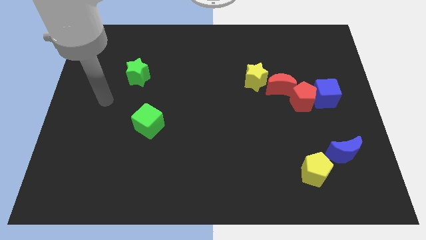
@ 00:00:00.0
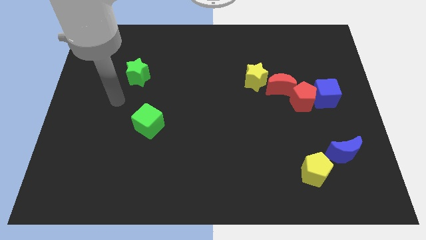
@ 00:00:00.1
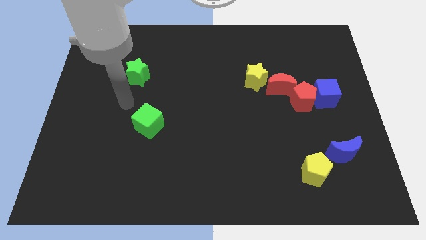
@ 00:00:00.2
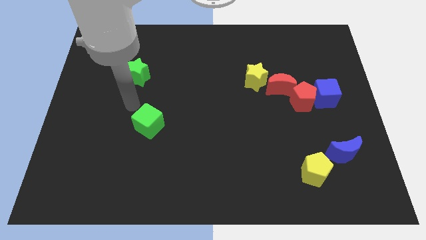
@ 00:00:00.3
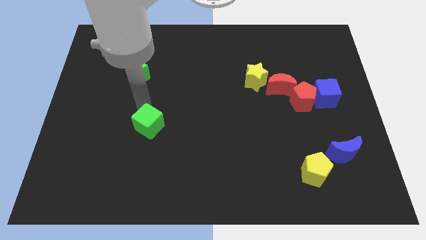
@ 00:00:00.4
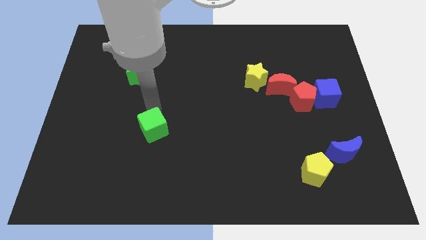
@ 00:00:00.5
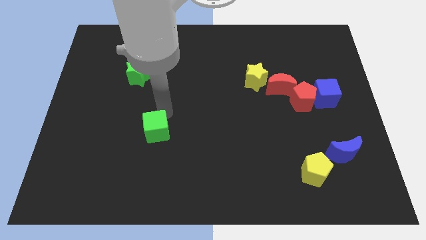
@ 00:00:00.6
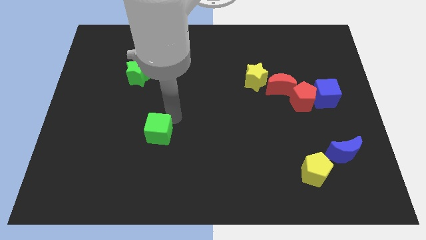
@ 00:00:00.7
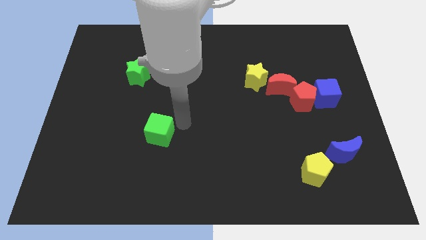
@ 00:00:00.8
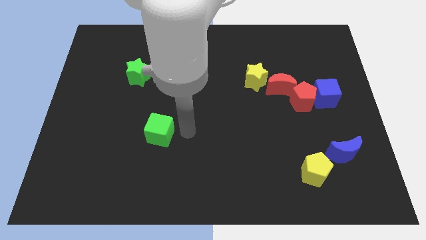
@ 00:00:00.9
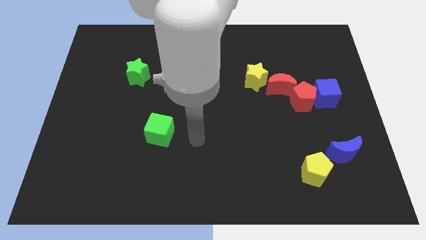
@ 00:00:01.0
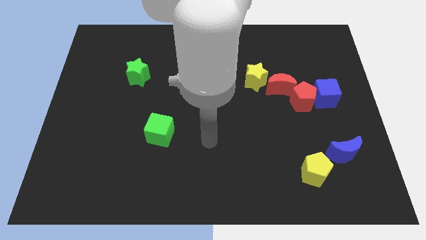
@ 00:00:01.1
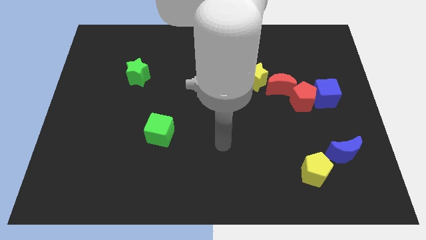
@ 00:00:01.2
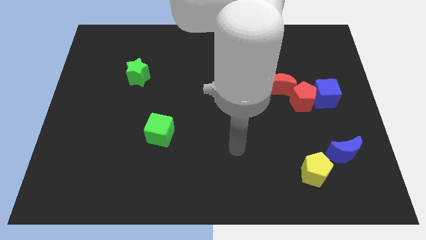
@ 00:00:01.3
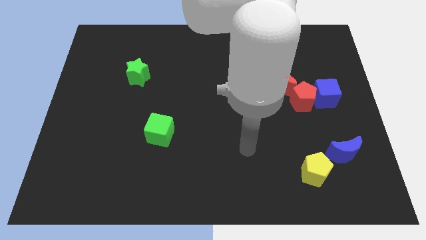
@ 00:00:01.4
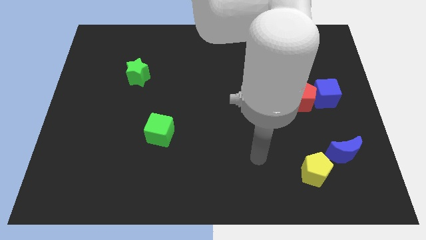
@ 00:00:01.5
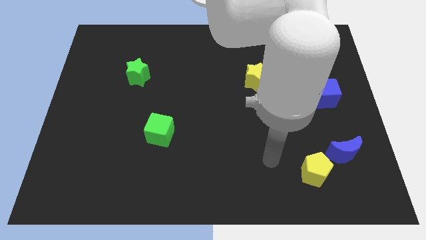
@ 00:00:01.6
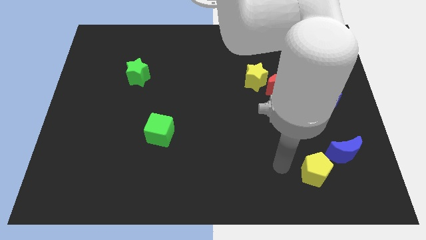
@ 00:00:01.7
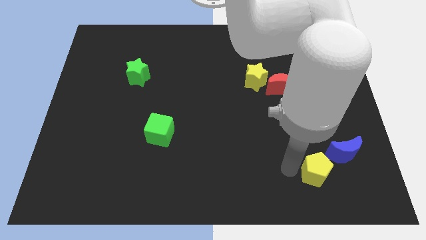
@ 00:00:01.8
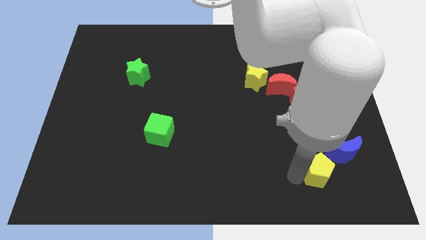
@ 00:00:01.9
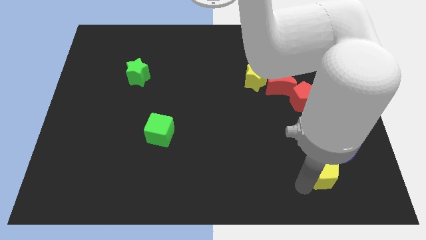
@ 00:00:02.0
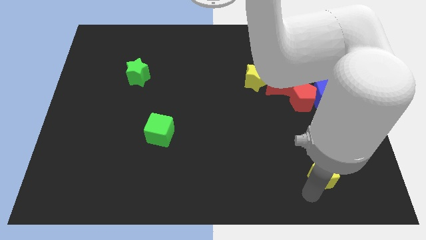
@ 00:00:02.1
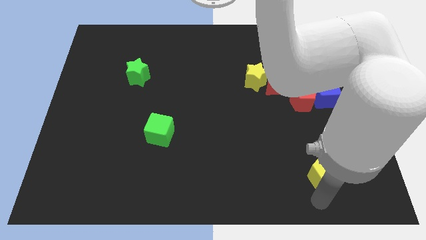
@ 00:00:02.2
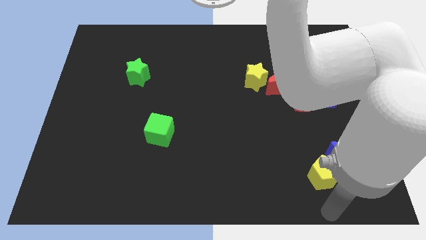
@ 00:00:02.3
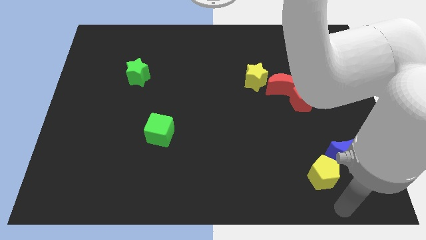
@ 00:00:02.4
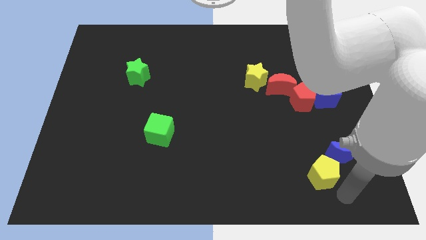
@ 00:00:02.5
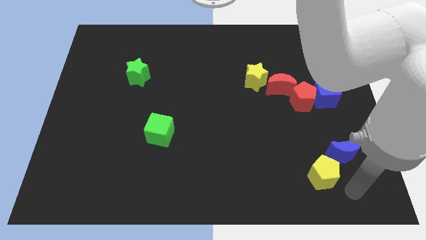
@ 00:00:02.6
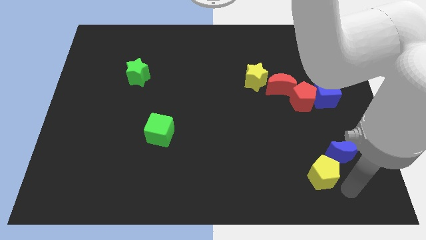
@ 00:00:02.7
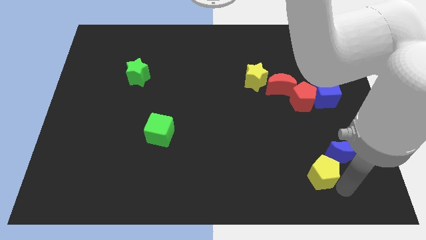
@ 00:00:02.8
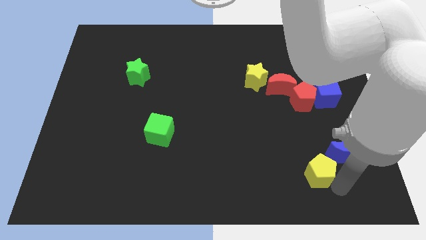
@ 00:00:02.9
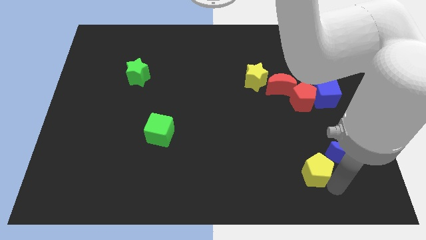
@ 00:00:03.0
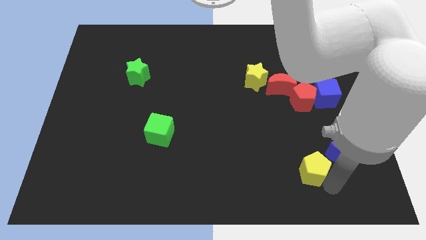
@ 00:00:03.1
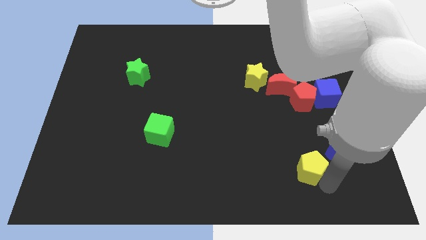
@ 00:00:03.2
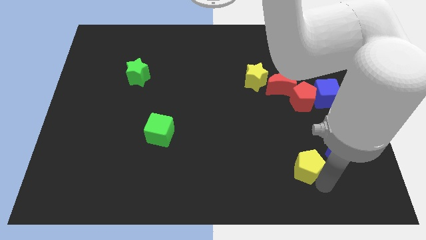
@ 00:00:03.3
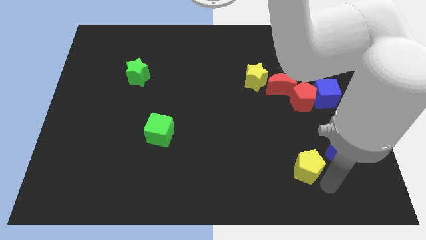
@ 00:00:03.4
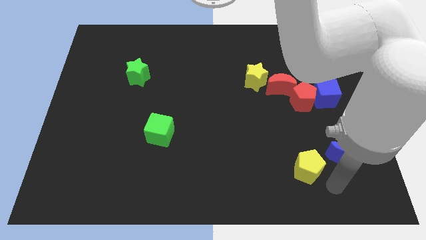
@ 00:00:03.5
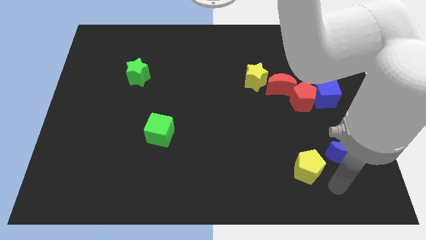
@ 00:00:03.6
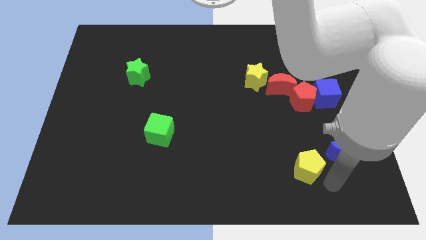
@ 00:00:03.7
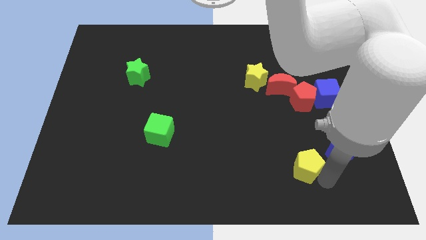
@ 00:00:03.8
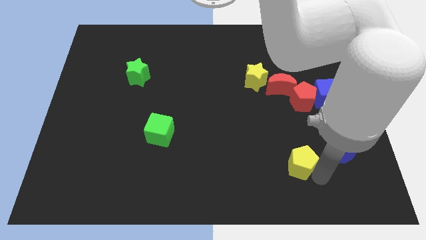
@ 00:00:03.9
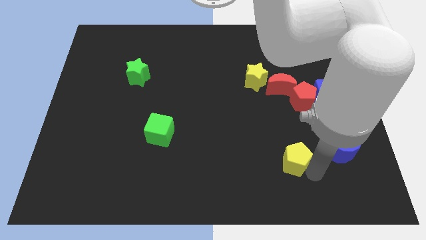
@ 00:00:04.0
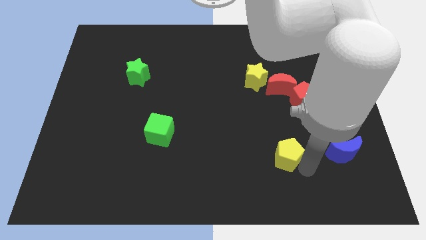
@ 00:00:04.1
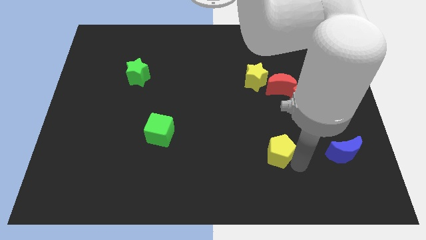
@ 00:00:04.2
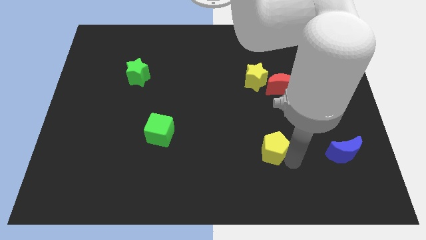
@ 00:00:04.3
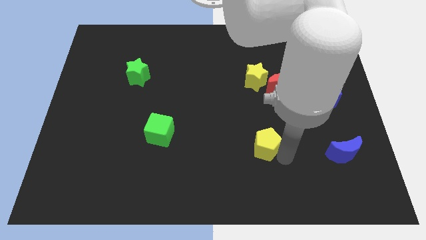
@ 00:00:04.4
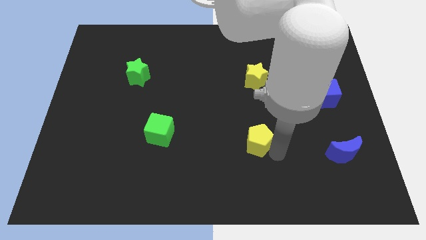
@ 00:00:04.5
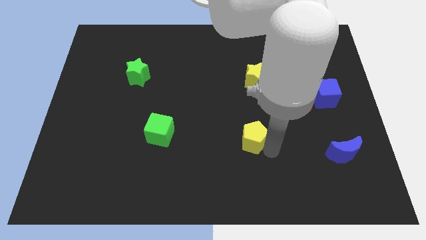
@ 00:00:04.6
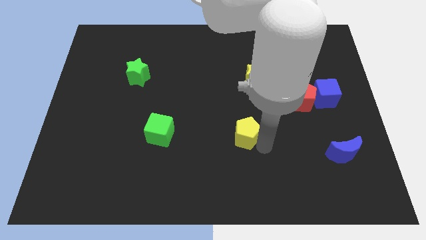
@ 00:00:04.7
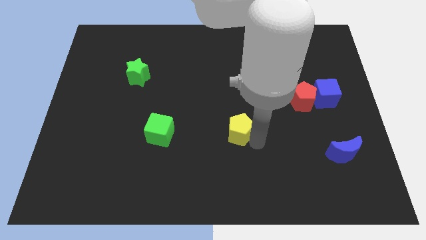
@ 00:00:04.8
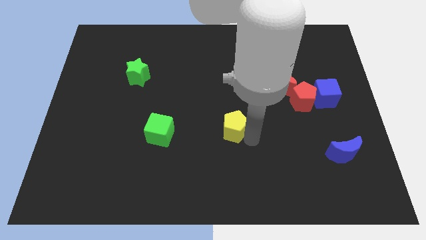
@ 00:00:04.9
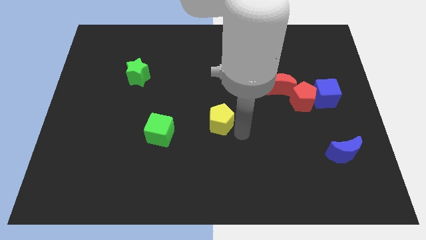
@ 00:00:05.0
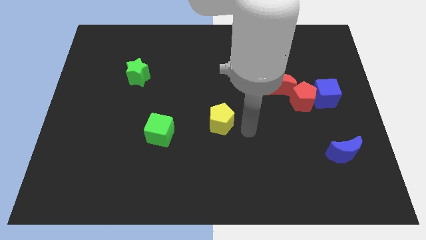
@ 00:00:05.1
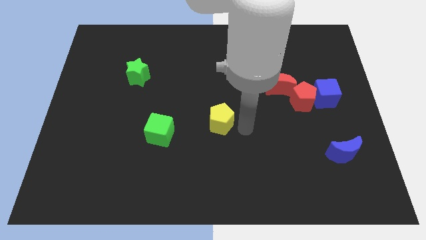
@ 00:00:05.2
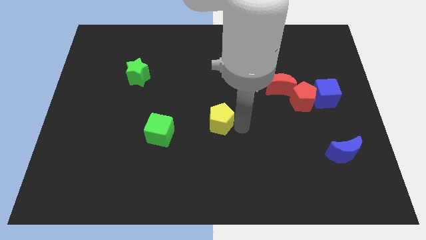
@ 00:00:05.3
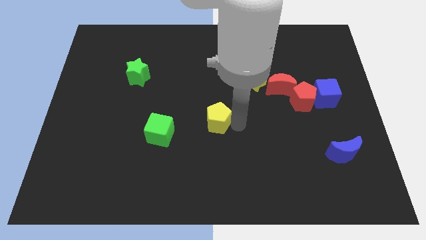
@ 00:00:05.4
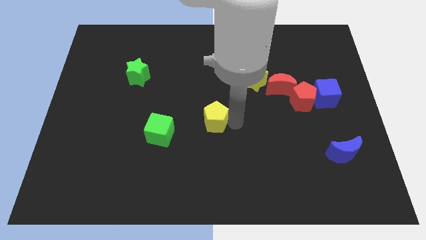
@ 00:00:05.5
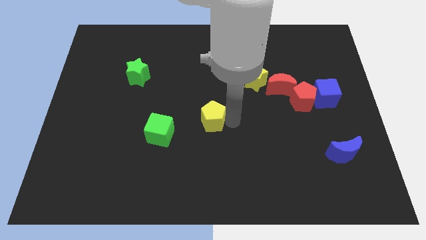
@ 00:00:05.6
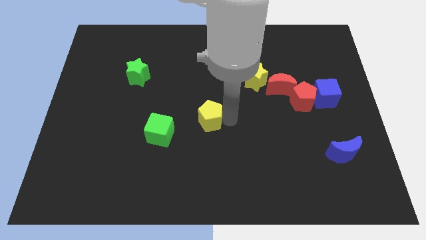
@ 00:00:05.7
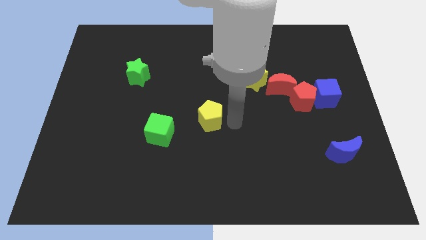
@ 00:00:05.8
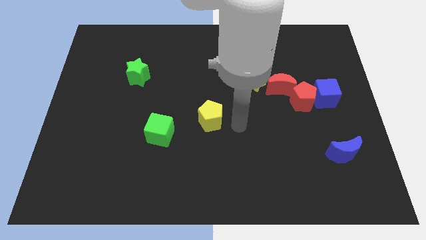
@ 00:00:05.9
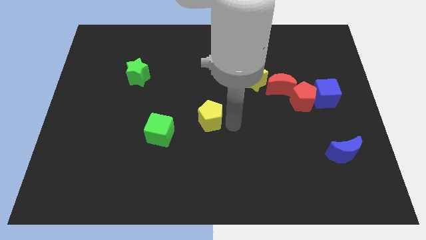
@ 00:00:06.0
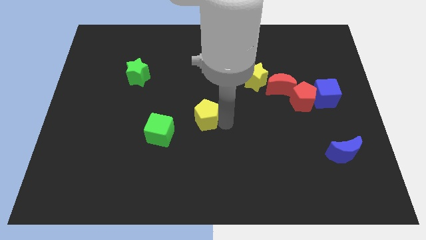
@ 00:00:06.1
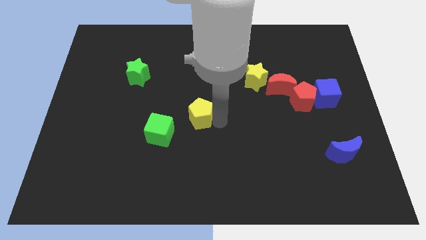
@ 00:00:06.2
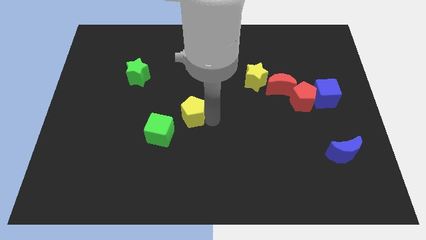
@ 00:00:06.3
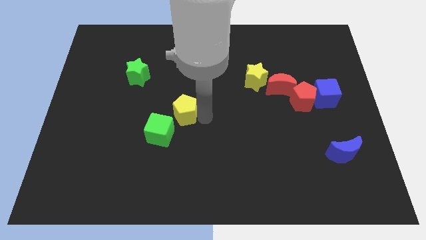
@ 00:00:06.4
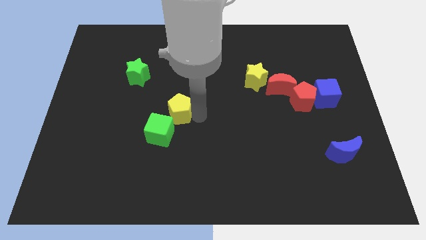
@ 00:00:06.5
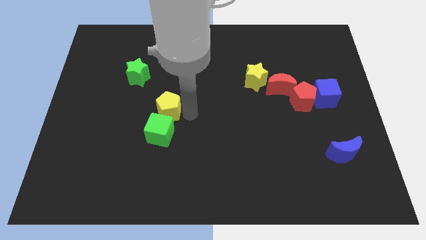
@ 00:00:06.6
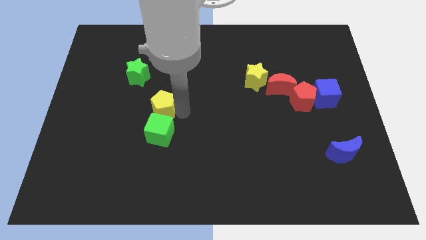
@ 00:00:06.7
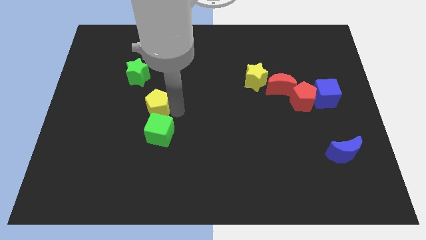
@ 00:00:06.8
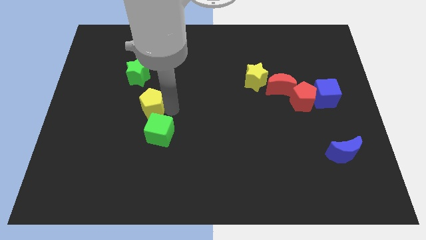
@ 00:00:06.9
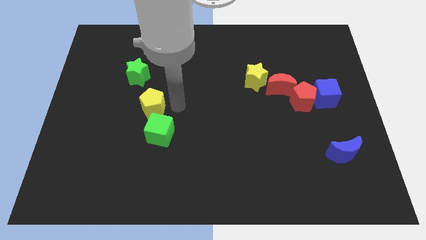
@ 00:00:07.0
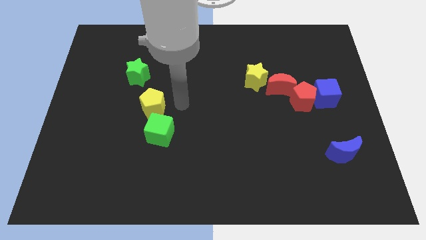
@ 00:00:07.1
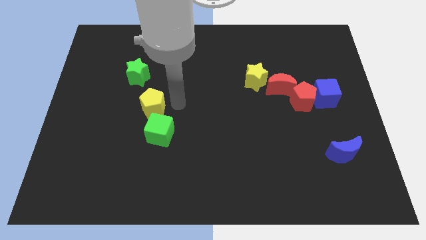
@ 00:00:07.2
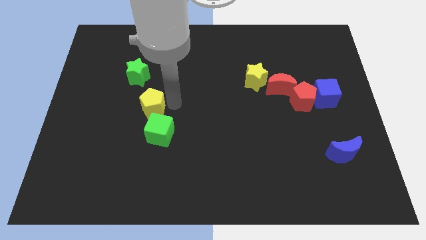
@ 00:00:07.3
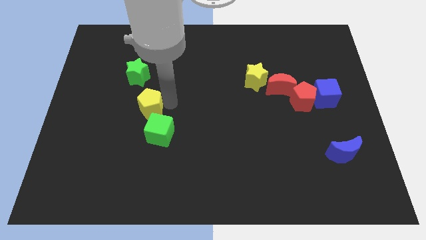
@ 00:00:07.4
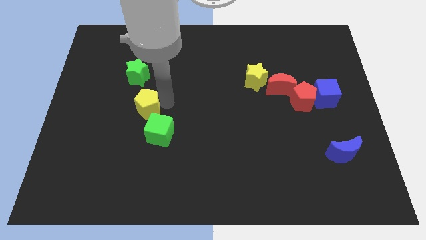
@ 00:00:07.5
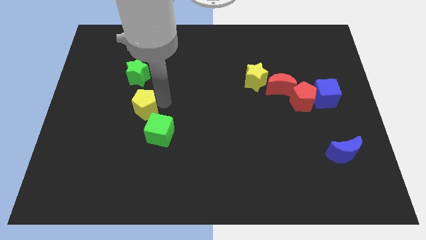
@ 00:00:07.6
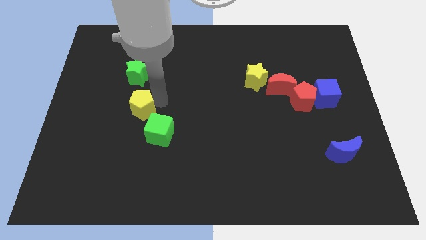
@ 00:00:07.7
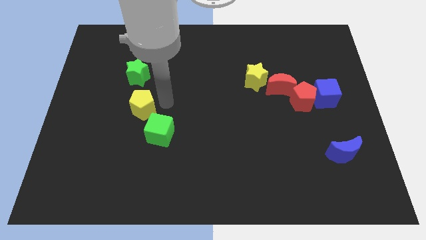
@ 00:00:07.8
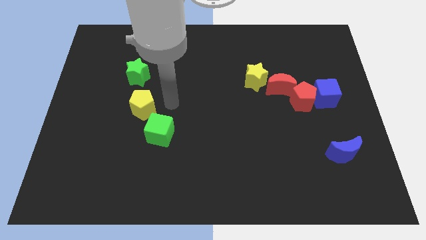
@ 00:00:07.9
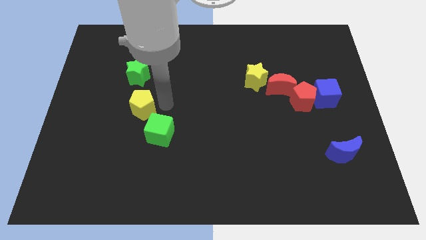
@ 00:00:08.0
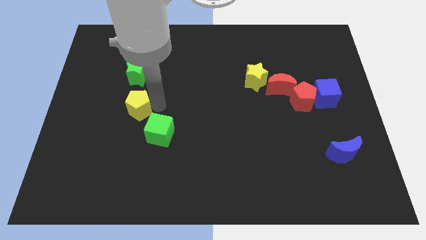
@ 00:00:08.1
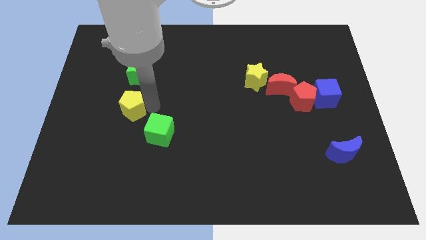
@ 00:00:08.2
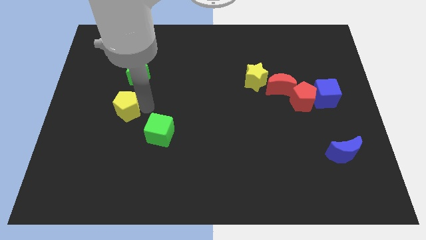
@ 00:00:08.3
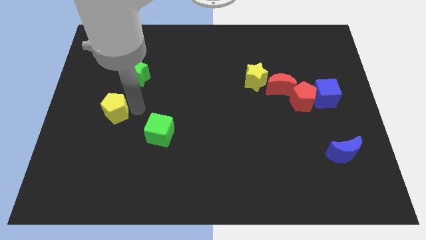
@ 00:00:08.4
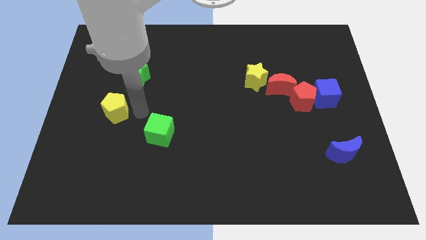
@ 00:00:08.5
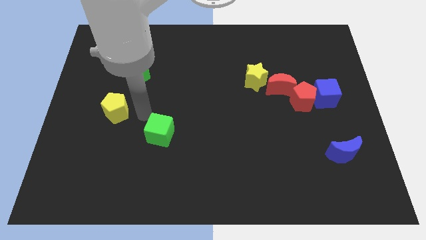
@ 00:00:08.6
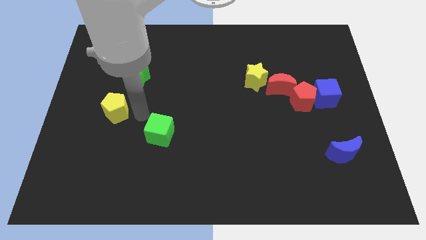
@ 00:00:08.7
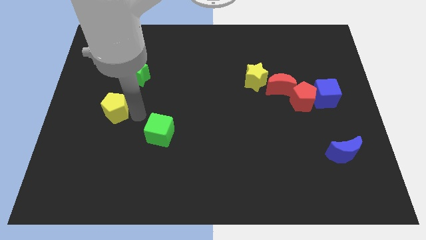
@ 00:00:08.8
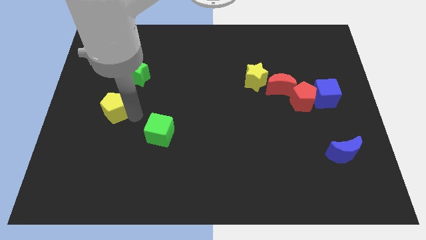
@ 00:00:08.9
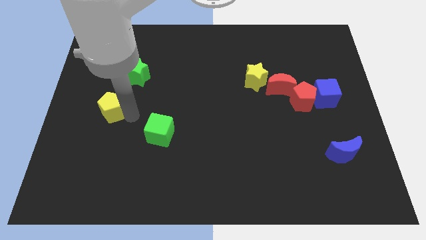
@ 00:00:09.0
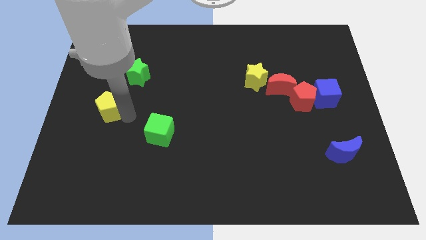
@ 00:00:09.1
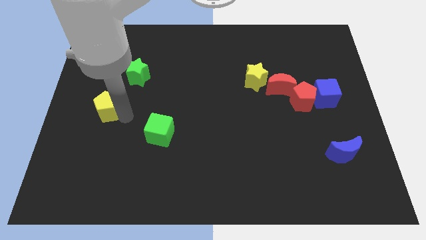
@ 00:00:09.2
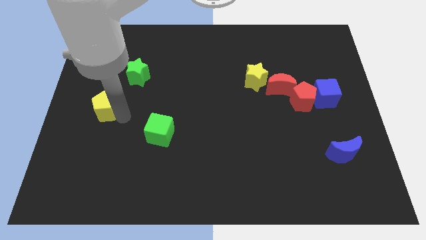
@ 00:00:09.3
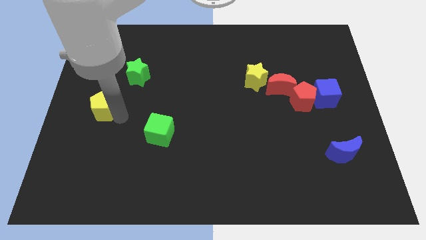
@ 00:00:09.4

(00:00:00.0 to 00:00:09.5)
move the yellow pentagon to the left side
